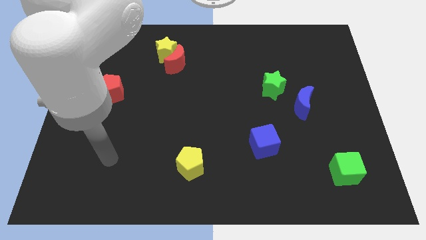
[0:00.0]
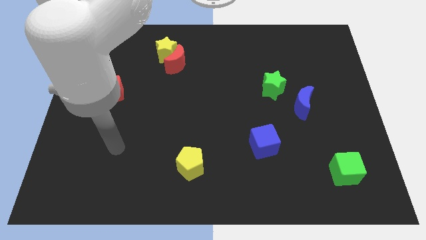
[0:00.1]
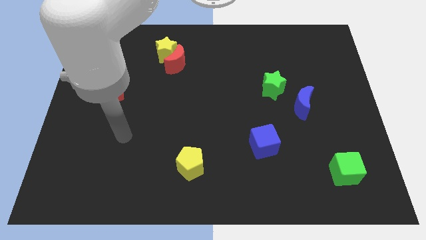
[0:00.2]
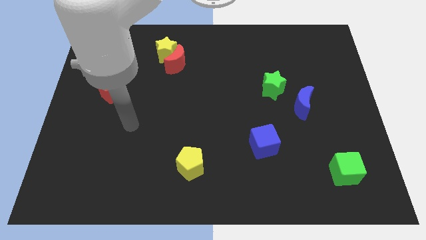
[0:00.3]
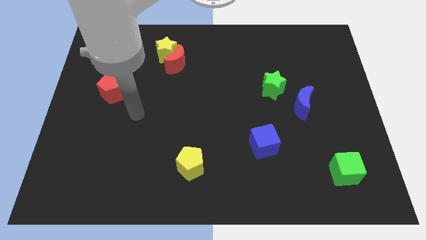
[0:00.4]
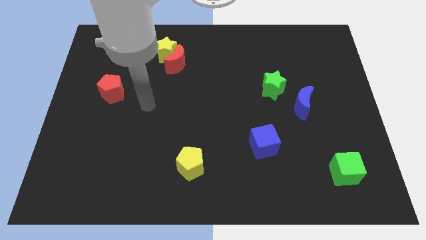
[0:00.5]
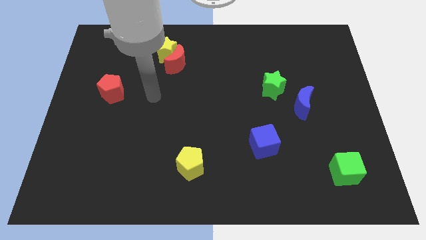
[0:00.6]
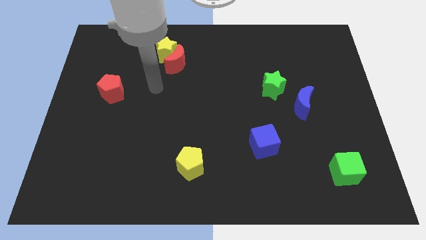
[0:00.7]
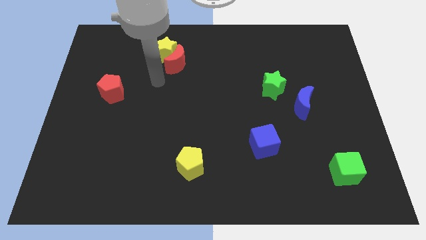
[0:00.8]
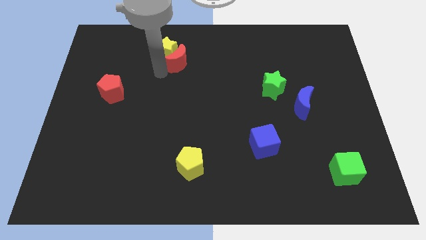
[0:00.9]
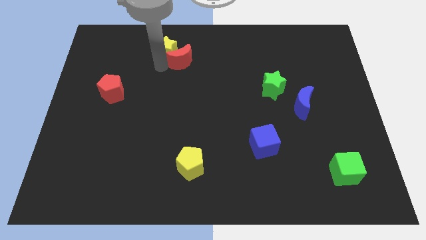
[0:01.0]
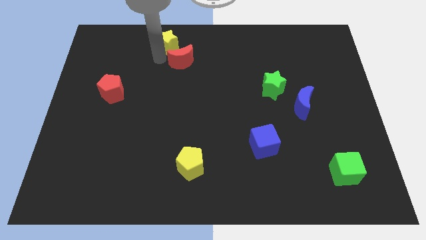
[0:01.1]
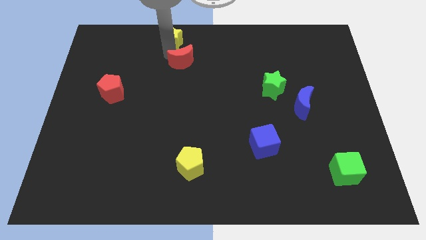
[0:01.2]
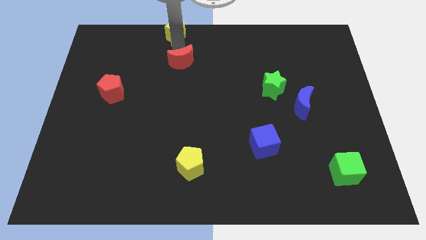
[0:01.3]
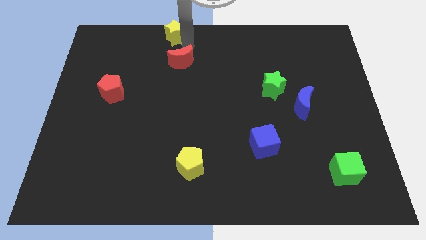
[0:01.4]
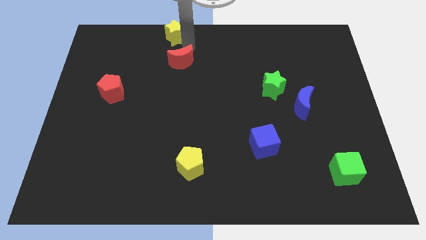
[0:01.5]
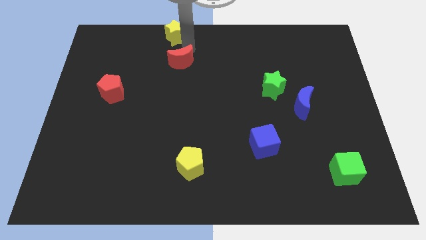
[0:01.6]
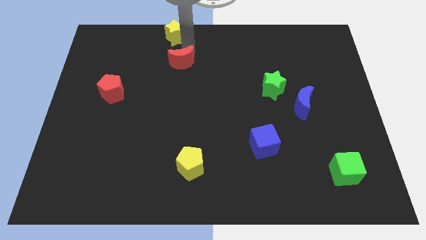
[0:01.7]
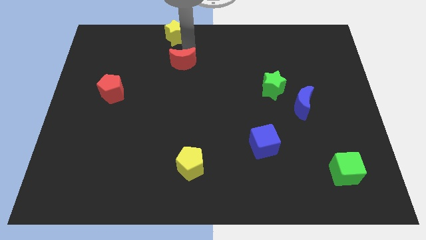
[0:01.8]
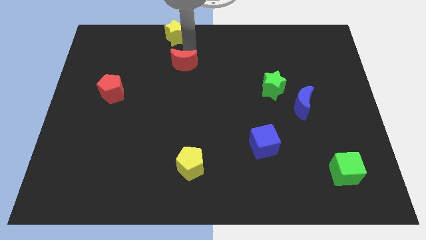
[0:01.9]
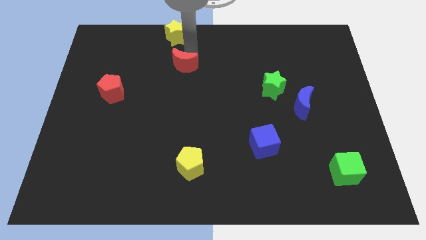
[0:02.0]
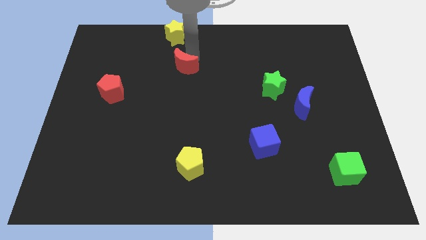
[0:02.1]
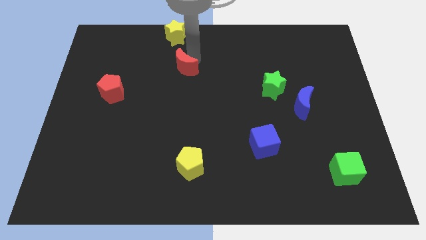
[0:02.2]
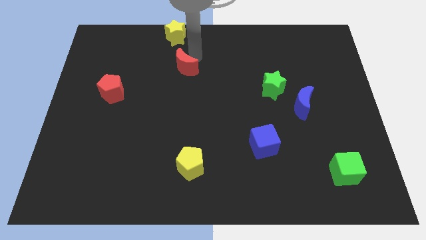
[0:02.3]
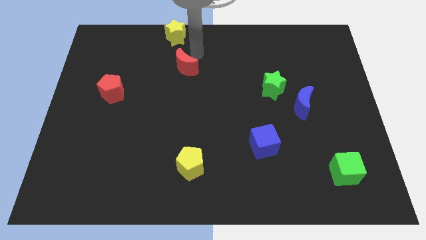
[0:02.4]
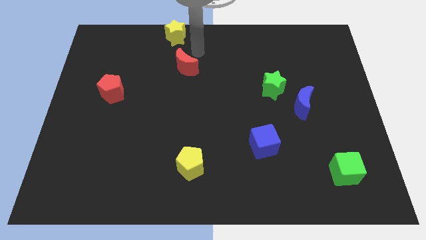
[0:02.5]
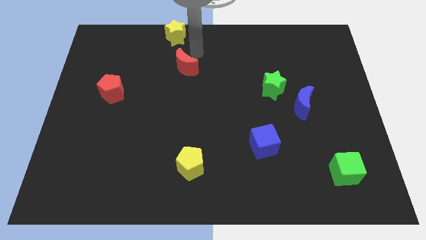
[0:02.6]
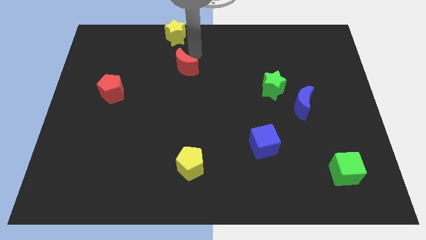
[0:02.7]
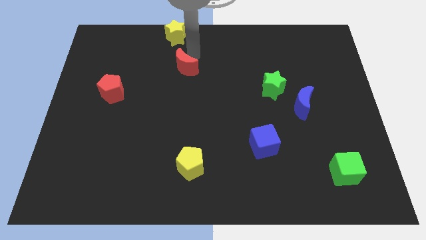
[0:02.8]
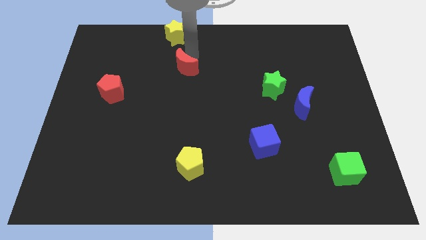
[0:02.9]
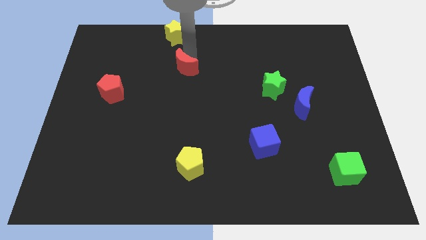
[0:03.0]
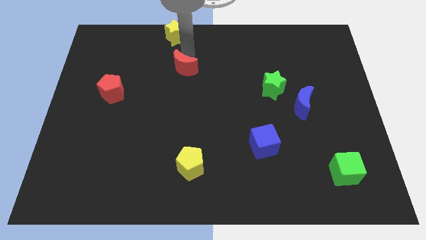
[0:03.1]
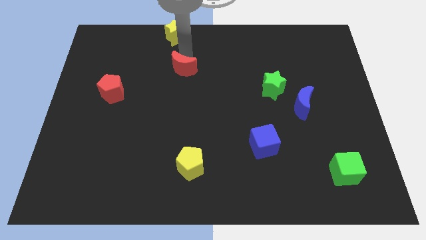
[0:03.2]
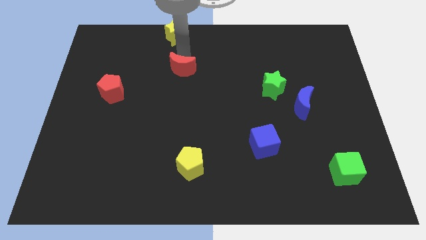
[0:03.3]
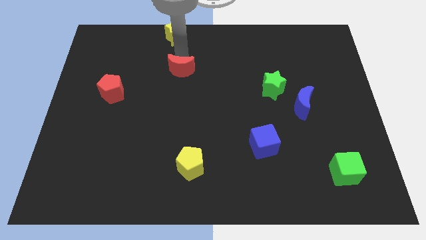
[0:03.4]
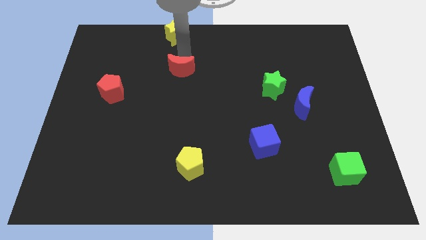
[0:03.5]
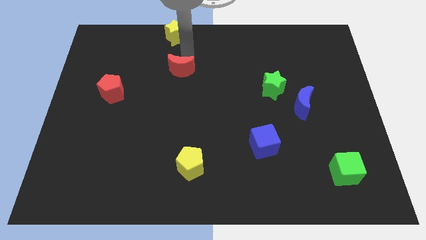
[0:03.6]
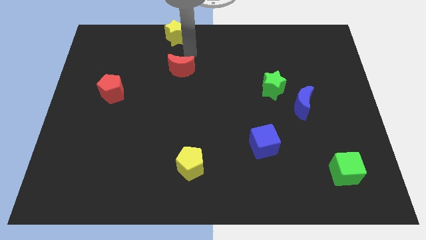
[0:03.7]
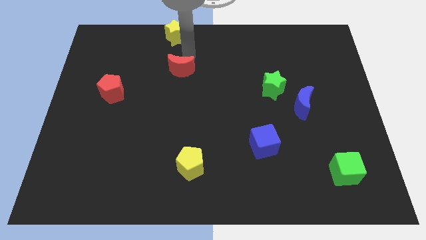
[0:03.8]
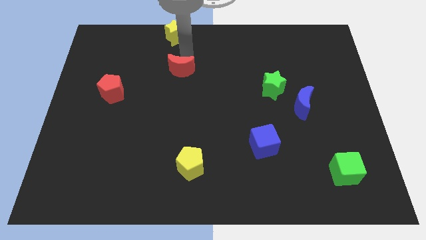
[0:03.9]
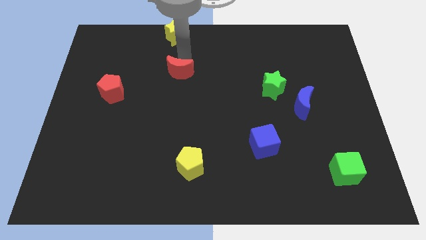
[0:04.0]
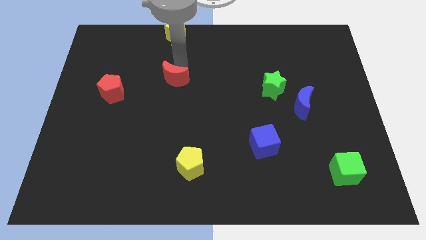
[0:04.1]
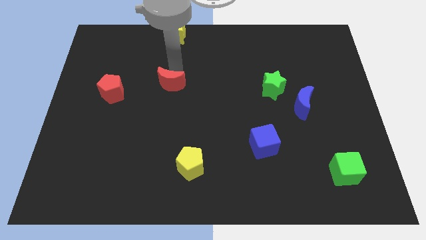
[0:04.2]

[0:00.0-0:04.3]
slightly push the red moon downwards

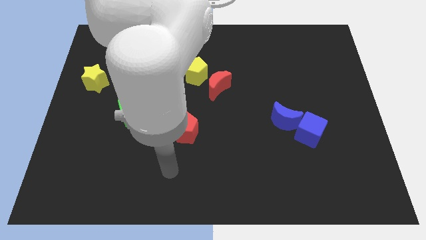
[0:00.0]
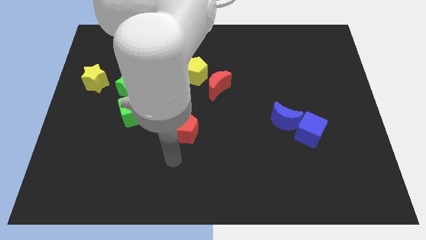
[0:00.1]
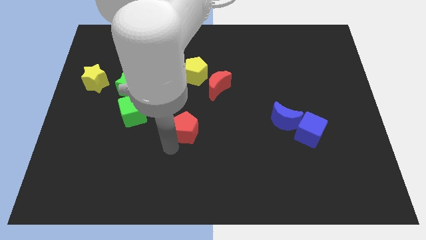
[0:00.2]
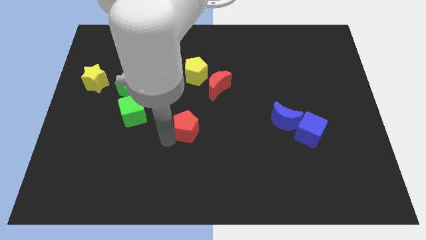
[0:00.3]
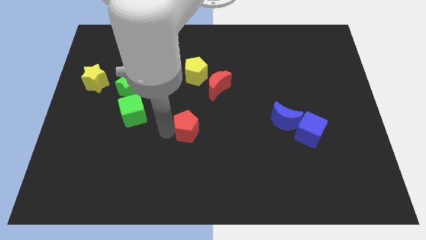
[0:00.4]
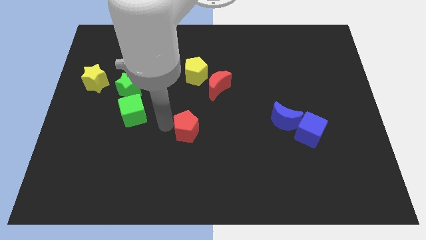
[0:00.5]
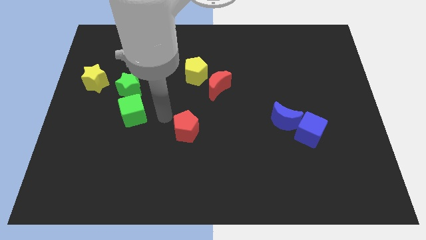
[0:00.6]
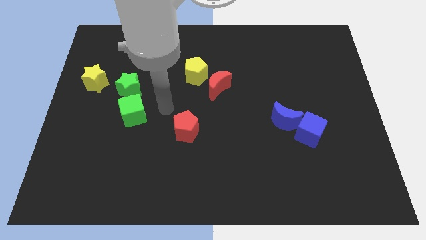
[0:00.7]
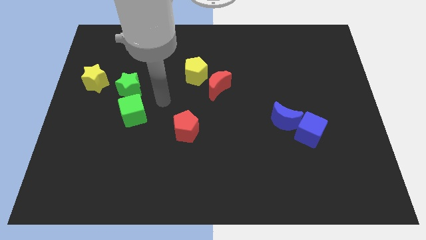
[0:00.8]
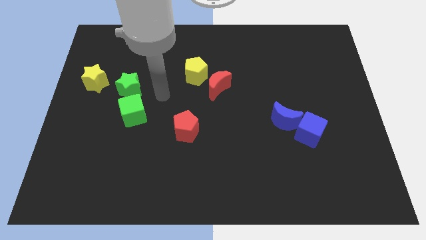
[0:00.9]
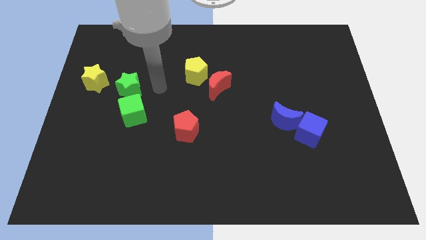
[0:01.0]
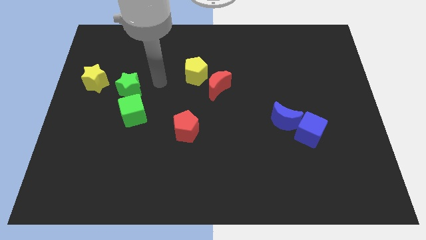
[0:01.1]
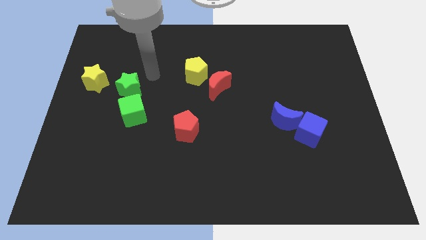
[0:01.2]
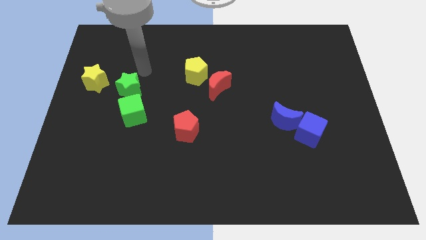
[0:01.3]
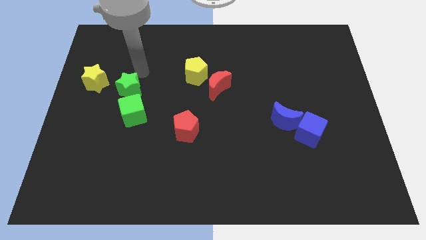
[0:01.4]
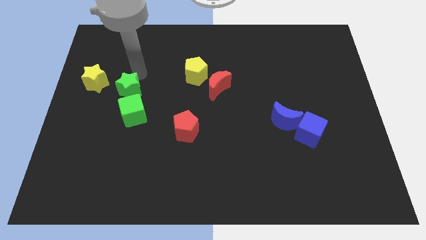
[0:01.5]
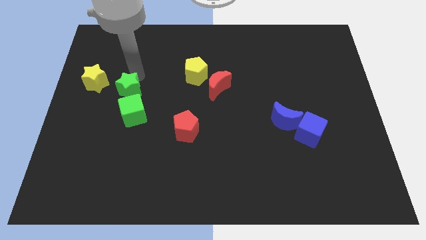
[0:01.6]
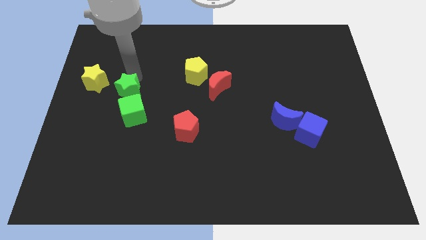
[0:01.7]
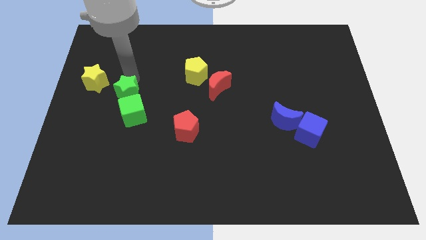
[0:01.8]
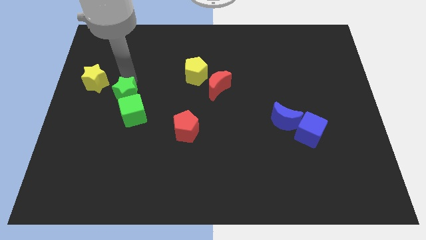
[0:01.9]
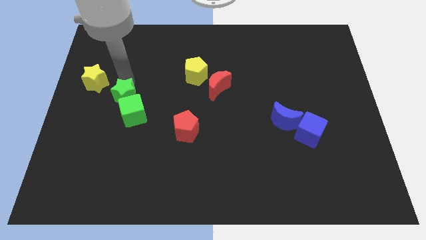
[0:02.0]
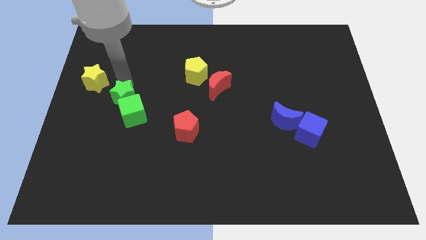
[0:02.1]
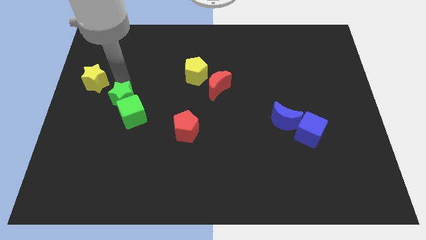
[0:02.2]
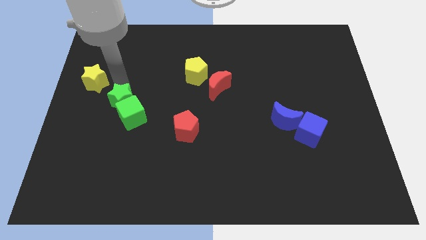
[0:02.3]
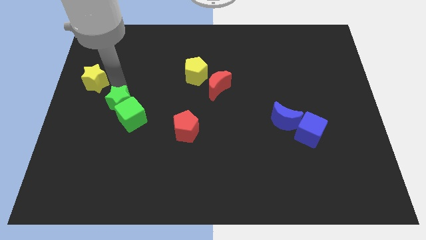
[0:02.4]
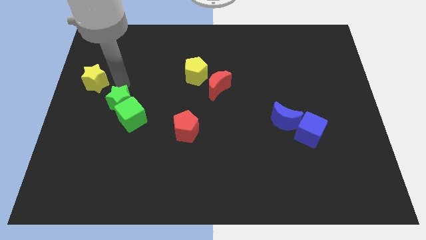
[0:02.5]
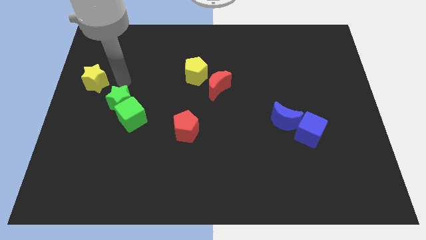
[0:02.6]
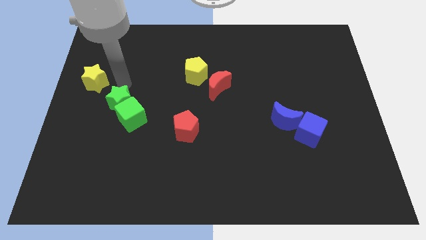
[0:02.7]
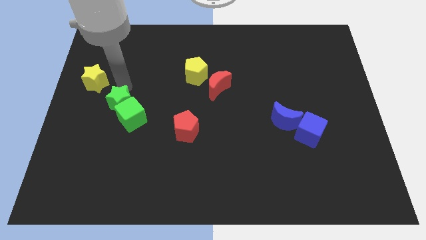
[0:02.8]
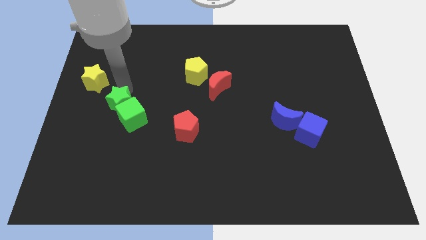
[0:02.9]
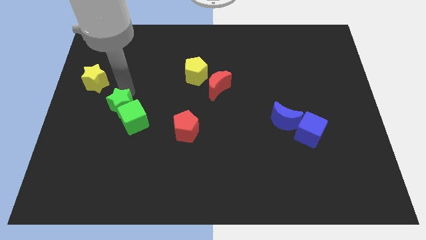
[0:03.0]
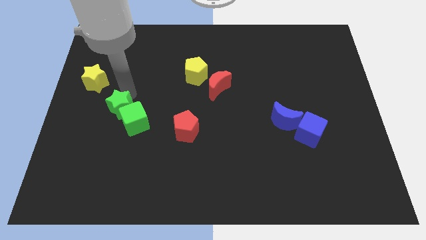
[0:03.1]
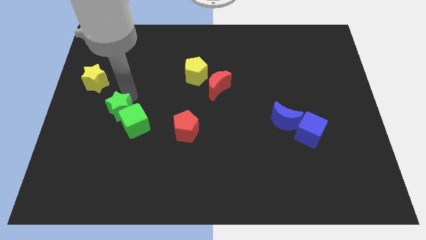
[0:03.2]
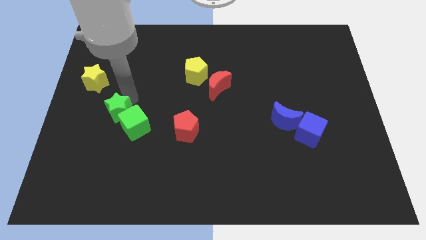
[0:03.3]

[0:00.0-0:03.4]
move the green star a bit down

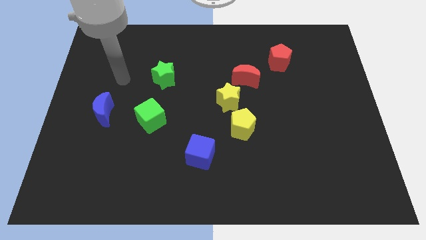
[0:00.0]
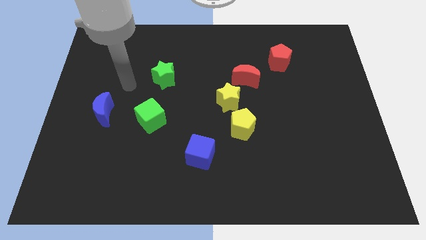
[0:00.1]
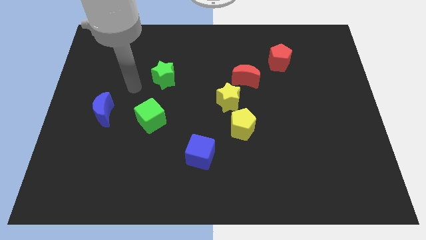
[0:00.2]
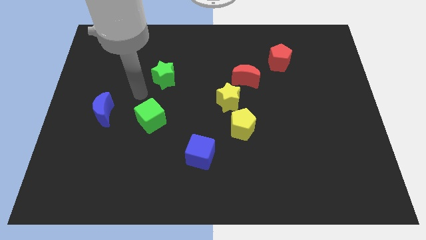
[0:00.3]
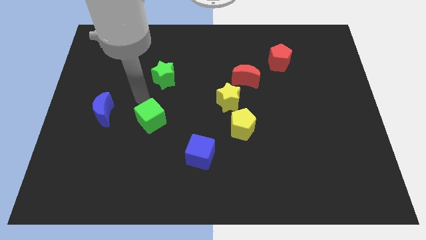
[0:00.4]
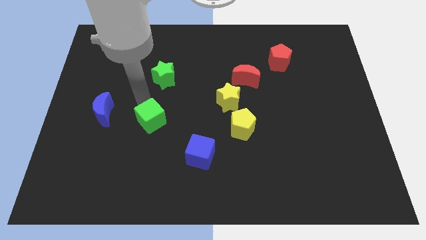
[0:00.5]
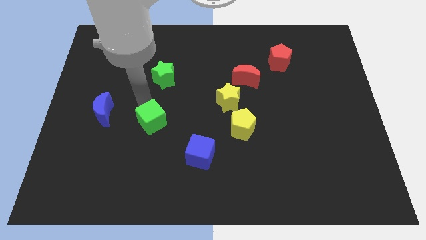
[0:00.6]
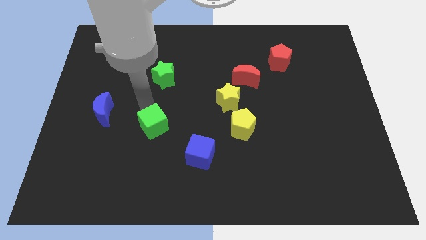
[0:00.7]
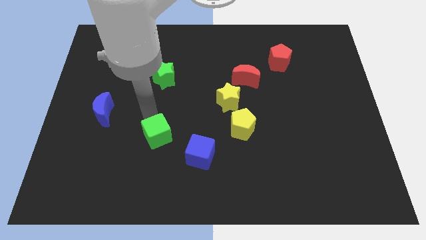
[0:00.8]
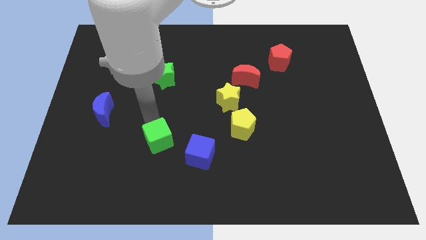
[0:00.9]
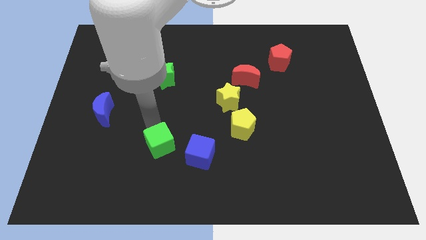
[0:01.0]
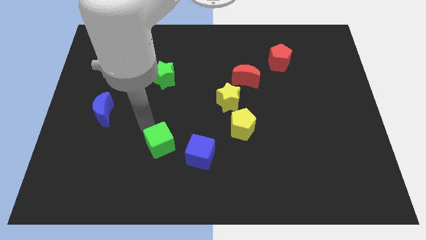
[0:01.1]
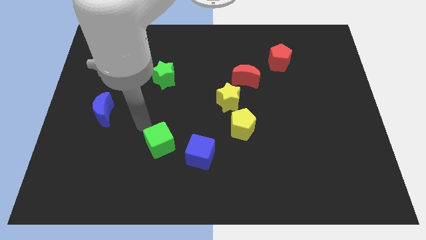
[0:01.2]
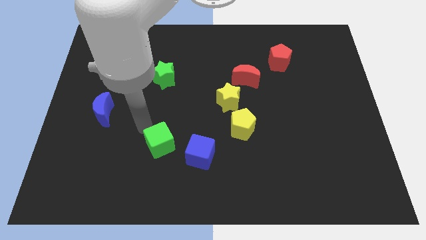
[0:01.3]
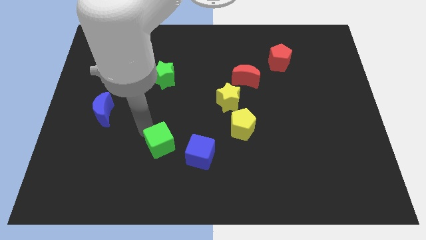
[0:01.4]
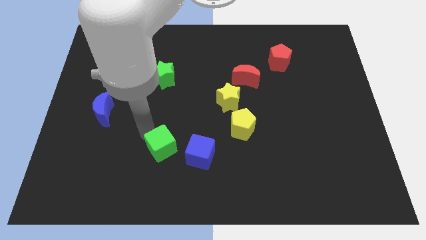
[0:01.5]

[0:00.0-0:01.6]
slightly move the green cube diagonally down and right
